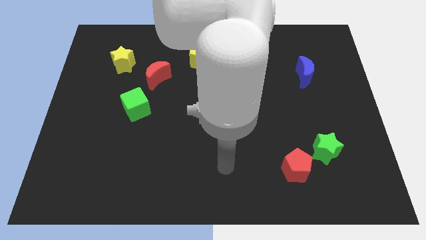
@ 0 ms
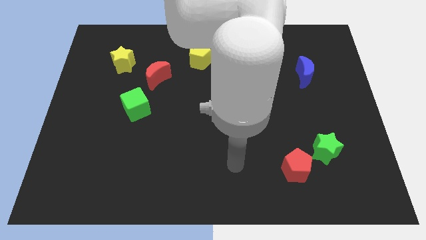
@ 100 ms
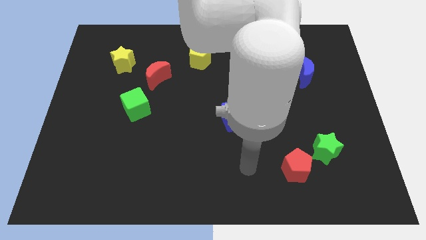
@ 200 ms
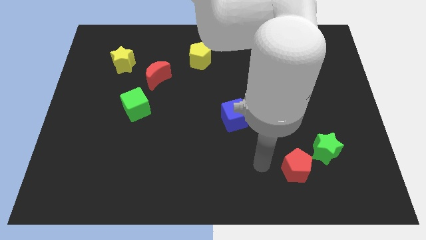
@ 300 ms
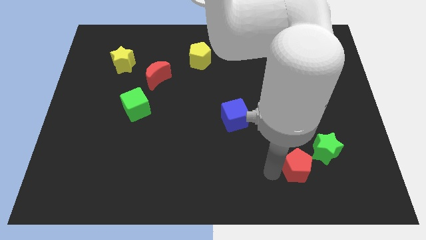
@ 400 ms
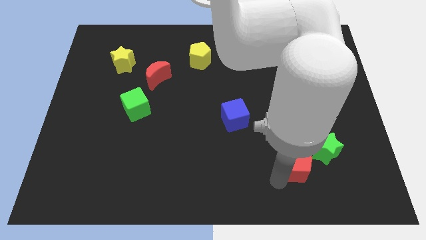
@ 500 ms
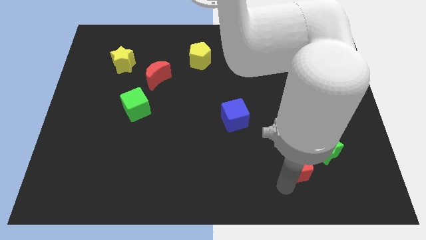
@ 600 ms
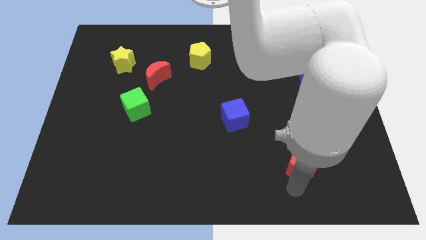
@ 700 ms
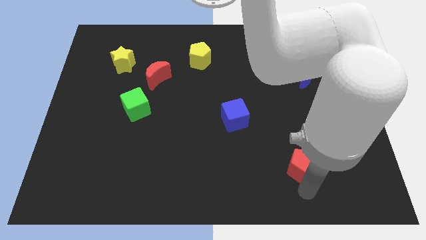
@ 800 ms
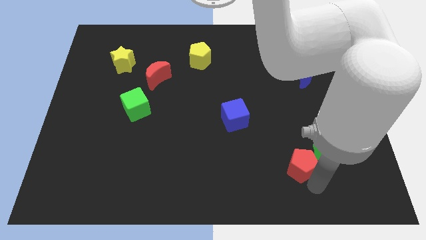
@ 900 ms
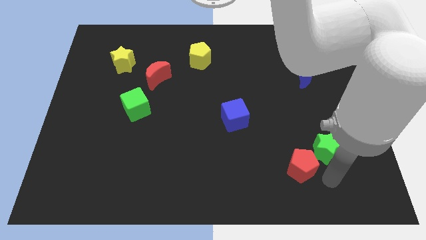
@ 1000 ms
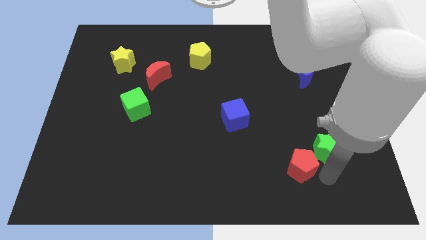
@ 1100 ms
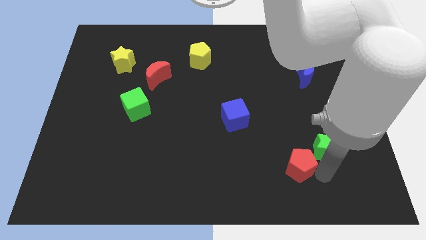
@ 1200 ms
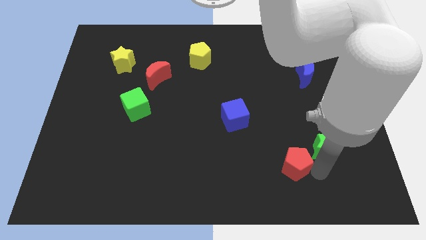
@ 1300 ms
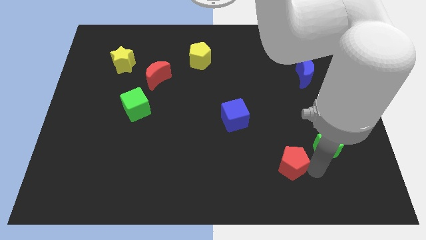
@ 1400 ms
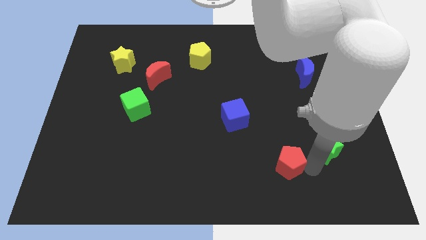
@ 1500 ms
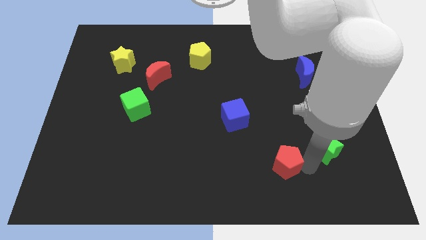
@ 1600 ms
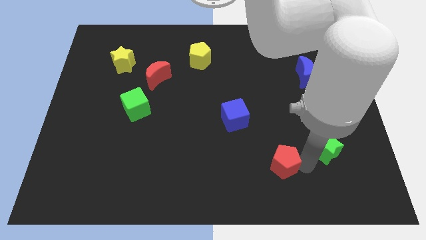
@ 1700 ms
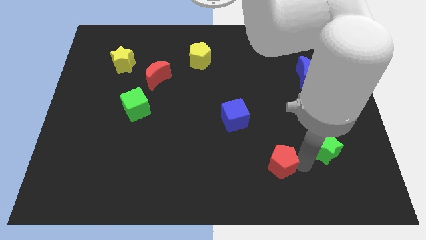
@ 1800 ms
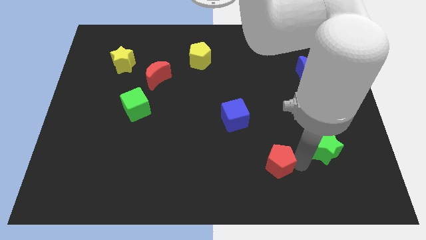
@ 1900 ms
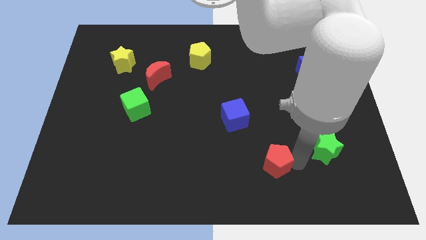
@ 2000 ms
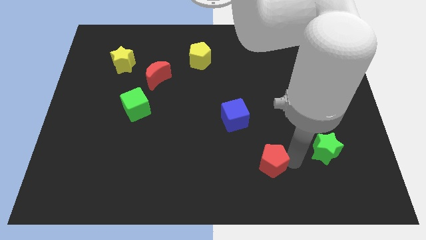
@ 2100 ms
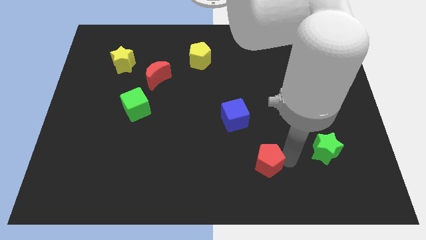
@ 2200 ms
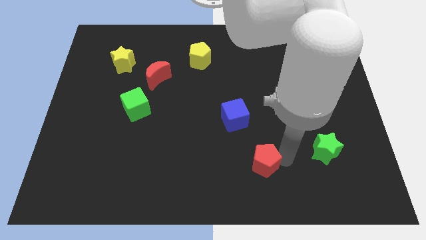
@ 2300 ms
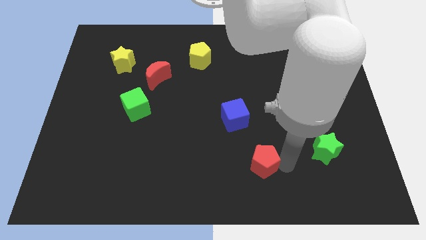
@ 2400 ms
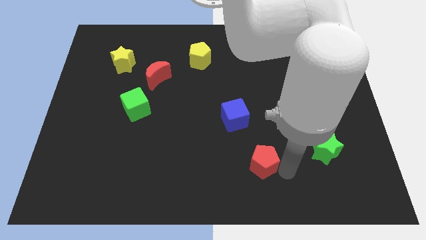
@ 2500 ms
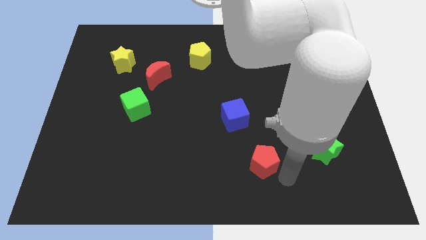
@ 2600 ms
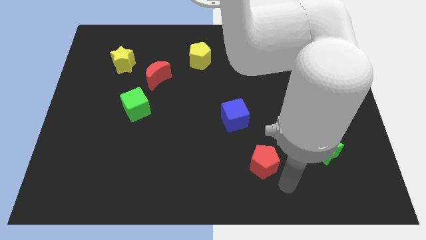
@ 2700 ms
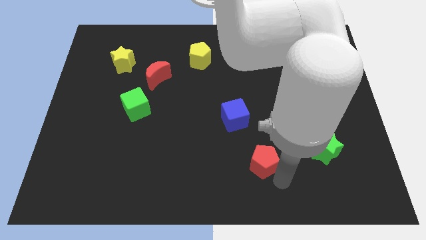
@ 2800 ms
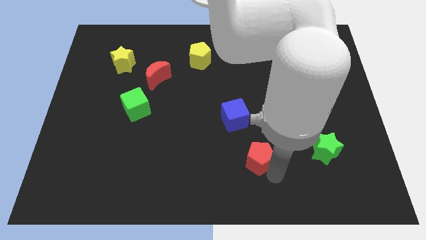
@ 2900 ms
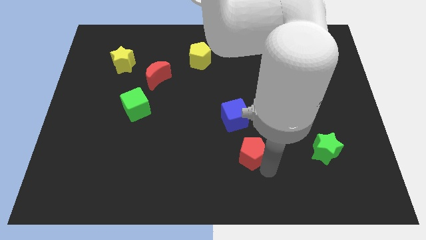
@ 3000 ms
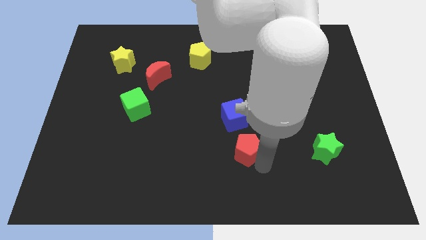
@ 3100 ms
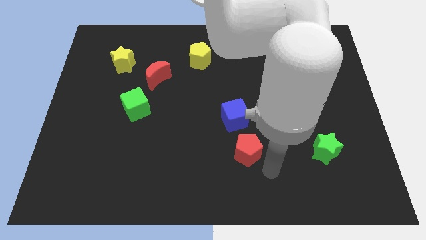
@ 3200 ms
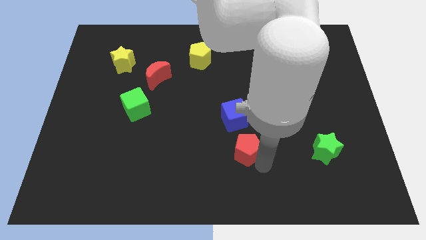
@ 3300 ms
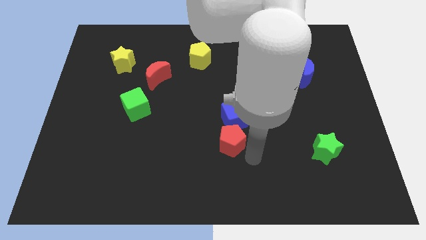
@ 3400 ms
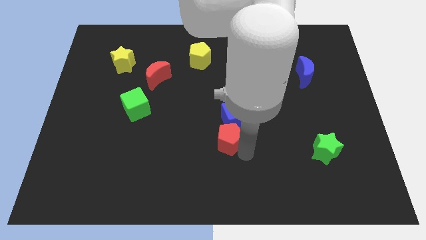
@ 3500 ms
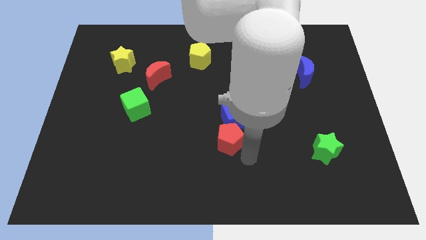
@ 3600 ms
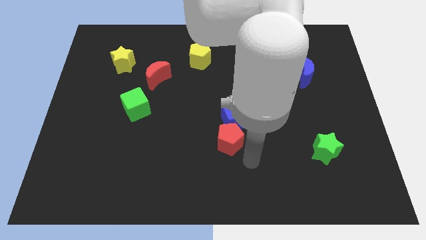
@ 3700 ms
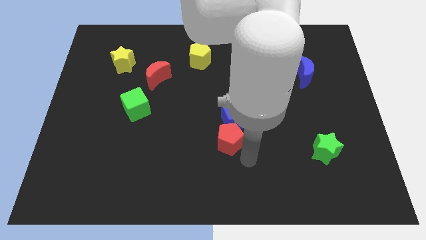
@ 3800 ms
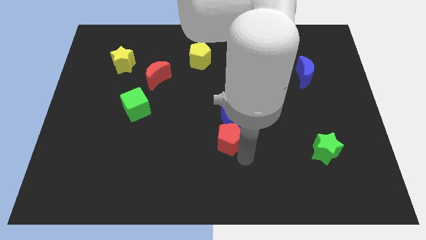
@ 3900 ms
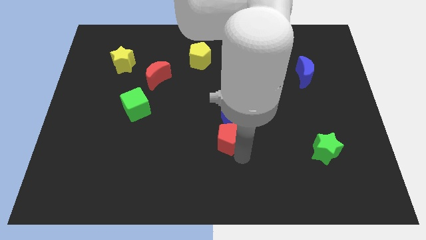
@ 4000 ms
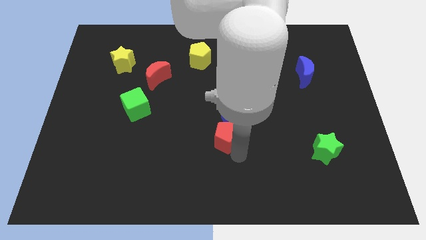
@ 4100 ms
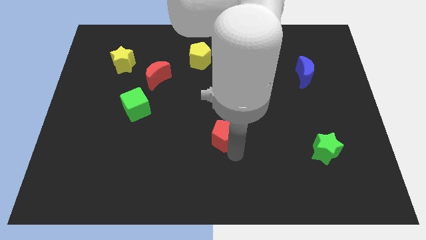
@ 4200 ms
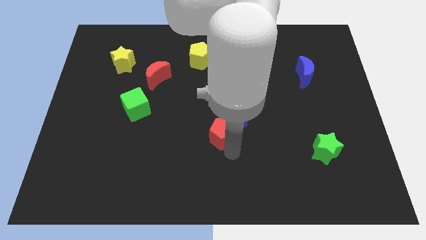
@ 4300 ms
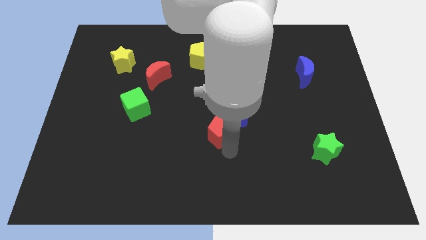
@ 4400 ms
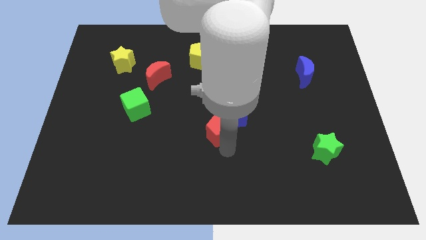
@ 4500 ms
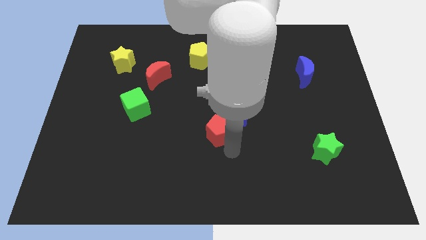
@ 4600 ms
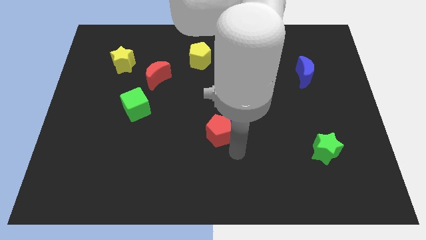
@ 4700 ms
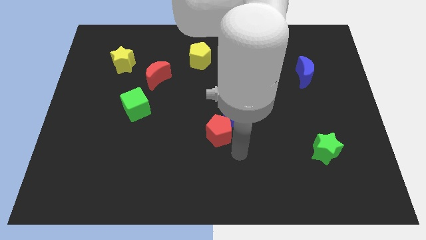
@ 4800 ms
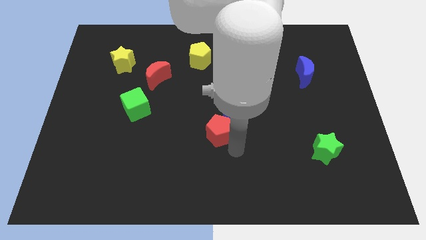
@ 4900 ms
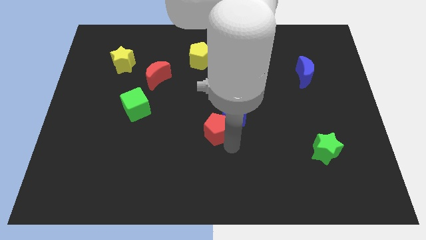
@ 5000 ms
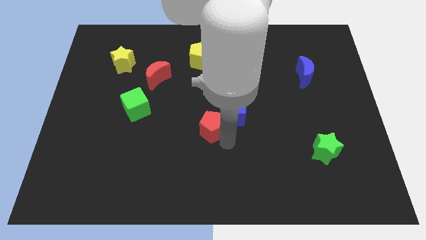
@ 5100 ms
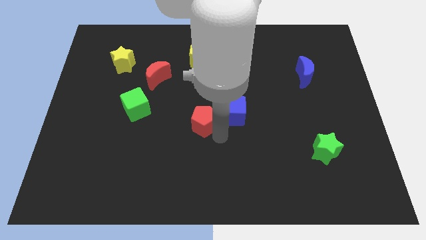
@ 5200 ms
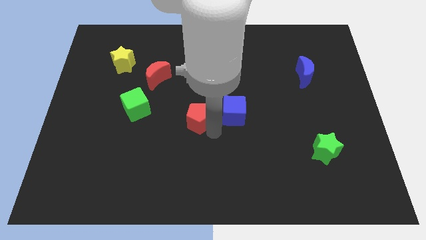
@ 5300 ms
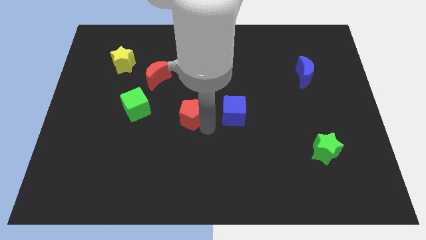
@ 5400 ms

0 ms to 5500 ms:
push the red pentagon to the right of the green cube

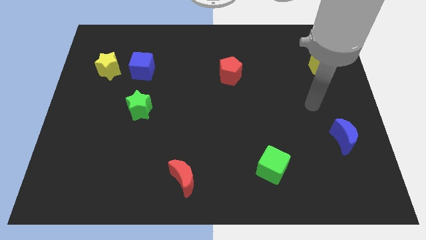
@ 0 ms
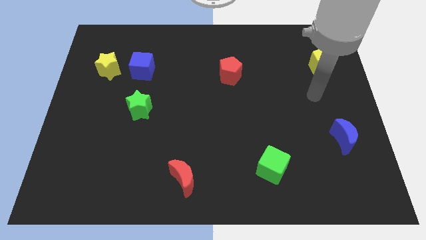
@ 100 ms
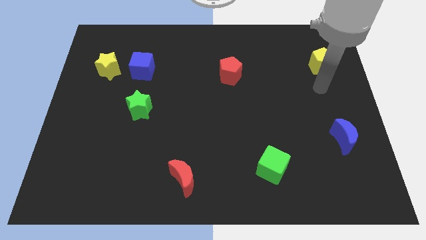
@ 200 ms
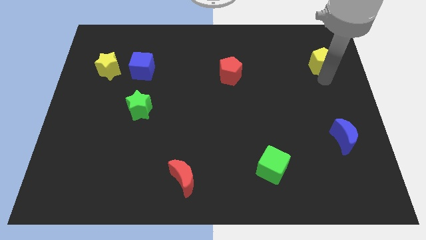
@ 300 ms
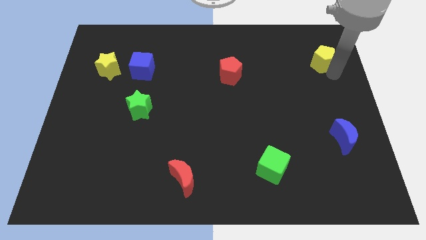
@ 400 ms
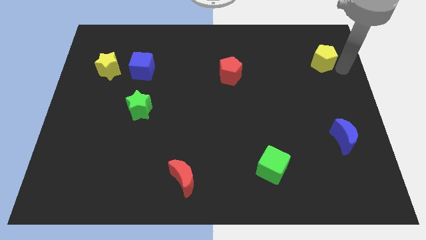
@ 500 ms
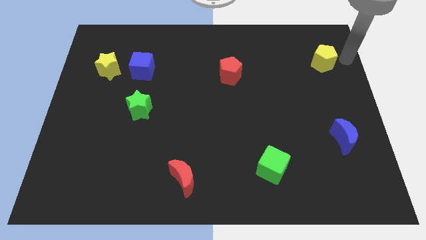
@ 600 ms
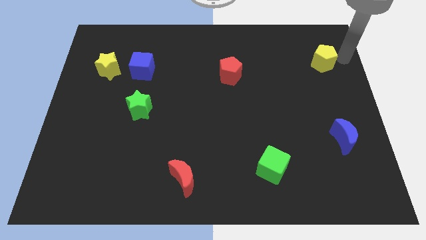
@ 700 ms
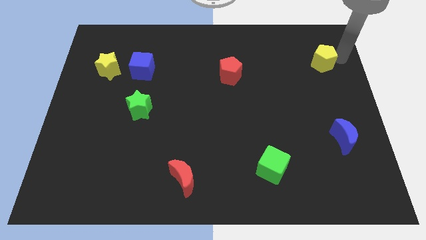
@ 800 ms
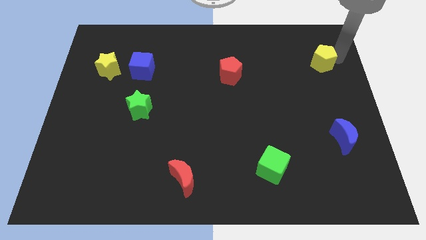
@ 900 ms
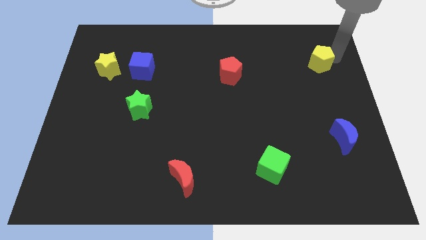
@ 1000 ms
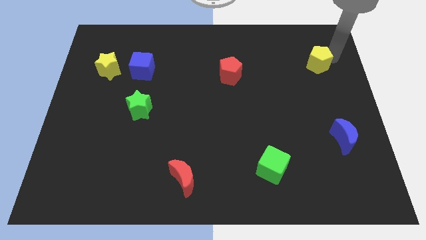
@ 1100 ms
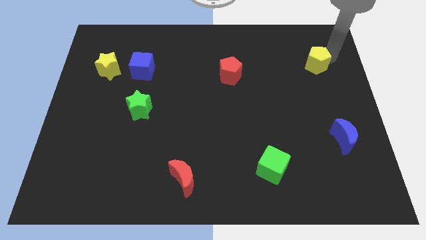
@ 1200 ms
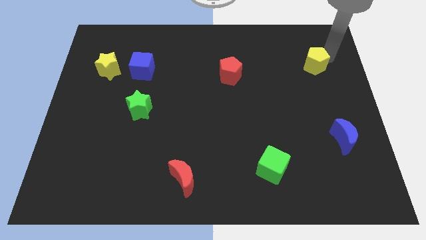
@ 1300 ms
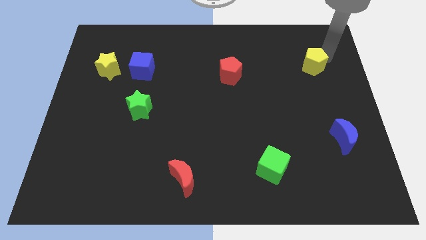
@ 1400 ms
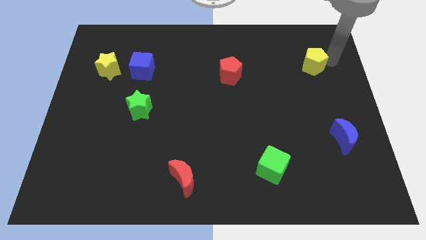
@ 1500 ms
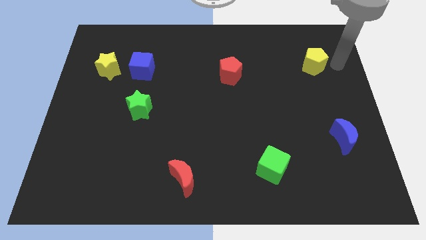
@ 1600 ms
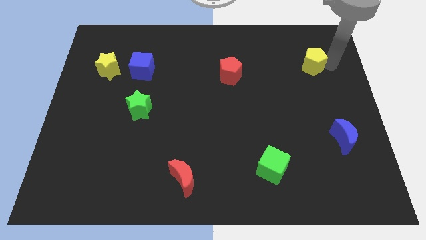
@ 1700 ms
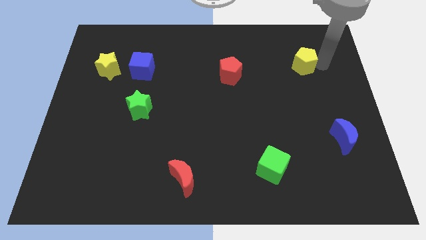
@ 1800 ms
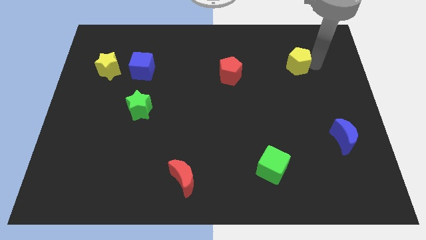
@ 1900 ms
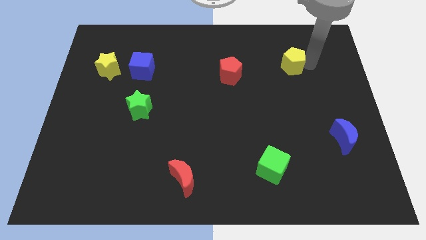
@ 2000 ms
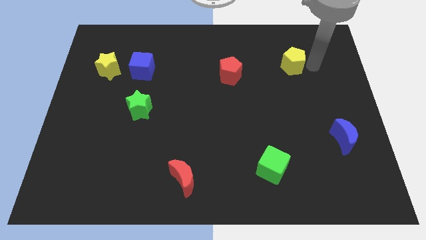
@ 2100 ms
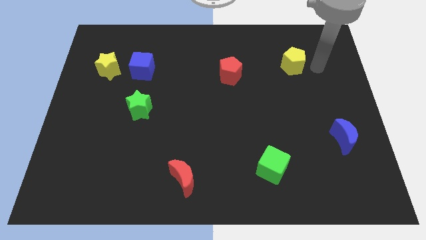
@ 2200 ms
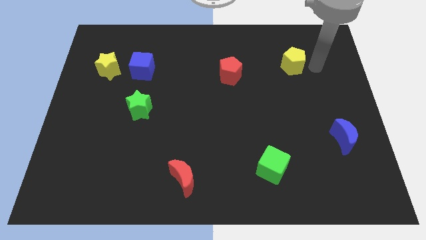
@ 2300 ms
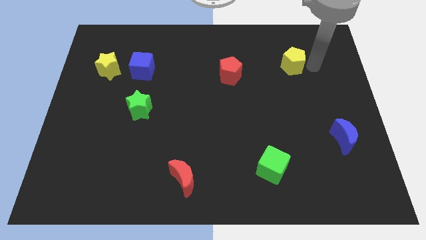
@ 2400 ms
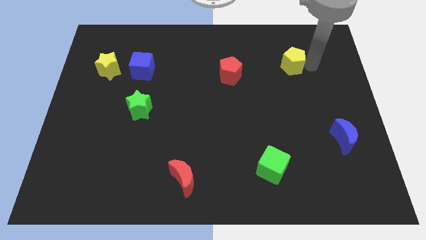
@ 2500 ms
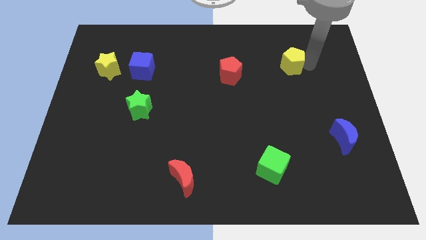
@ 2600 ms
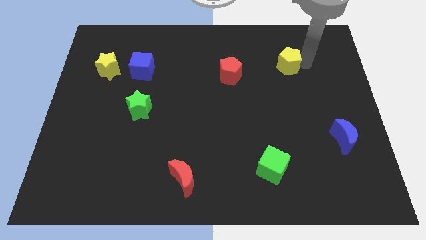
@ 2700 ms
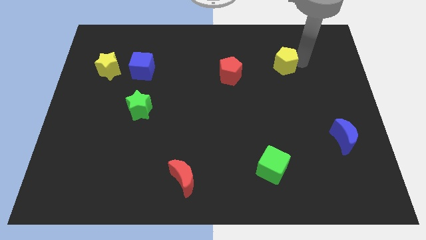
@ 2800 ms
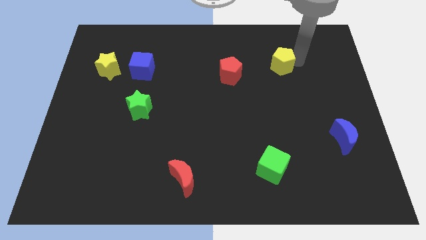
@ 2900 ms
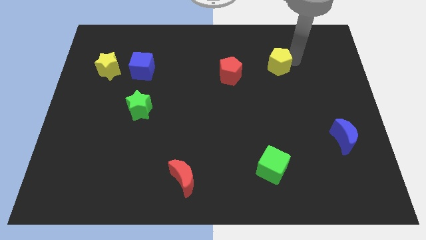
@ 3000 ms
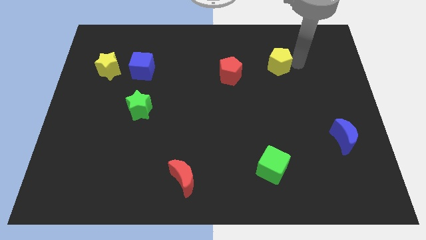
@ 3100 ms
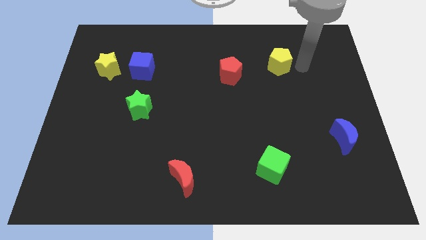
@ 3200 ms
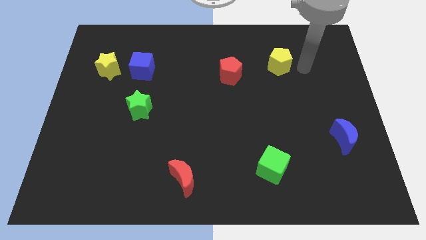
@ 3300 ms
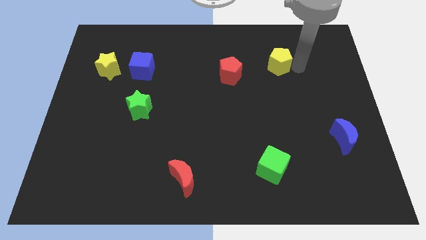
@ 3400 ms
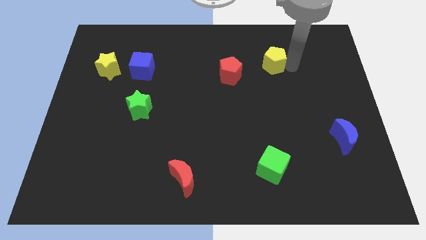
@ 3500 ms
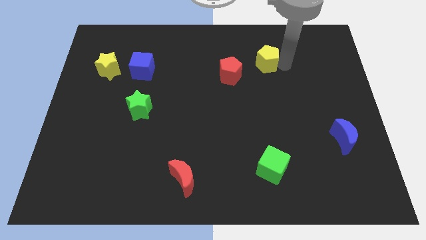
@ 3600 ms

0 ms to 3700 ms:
put the yellow pentagon diagonally up and to the right of the red pentagon
